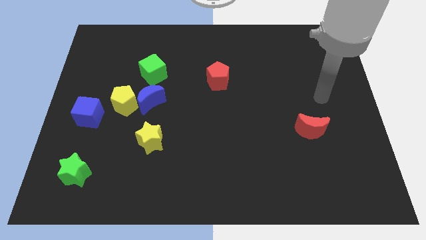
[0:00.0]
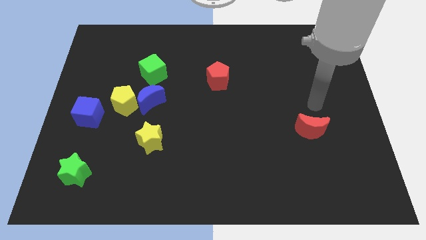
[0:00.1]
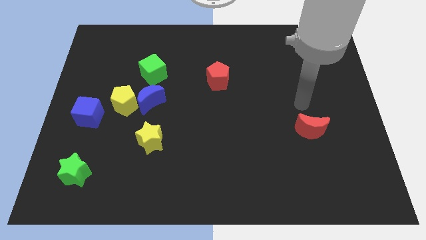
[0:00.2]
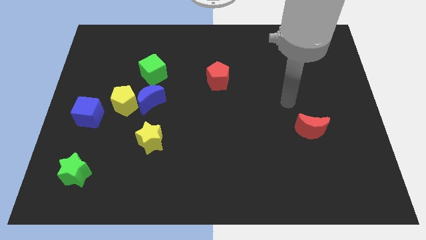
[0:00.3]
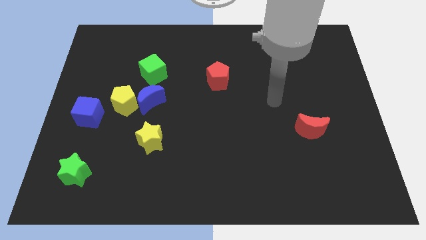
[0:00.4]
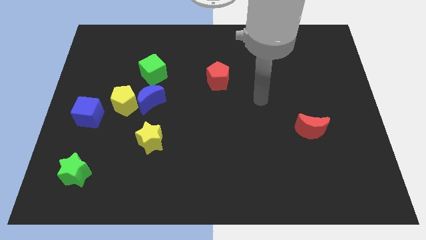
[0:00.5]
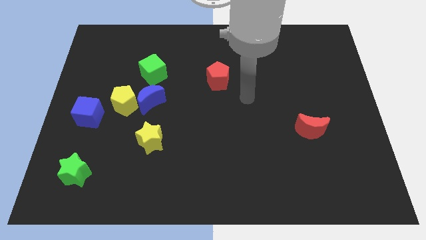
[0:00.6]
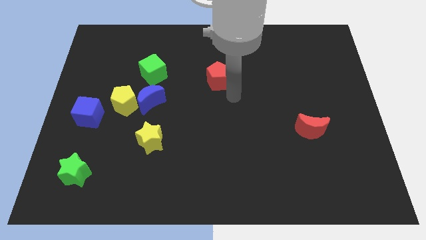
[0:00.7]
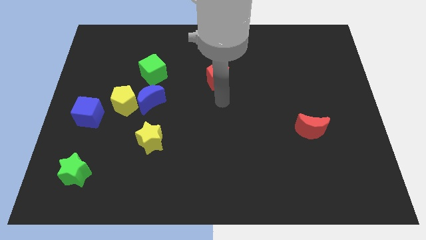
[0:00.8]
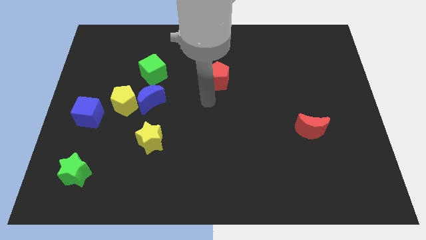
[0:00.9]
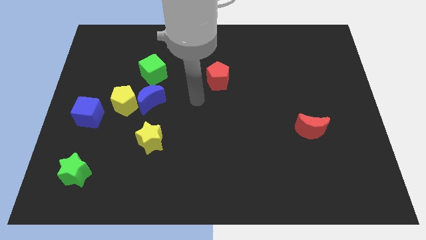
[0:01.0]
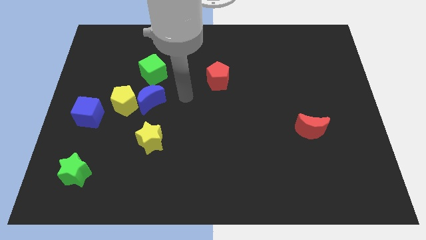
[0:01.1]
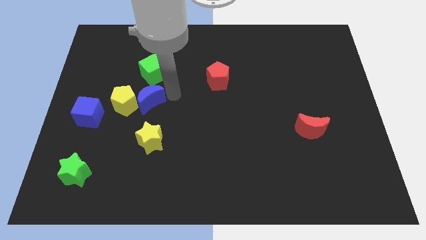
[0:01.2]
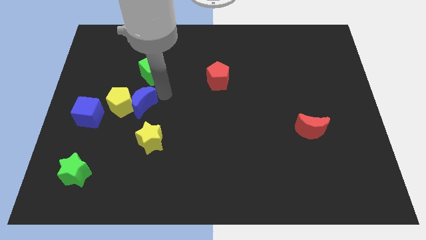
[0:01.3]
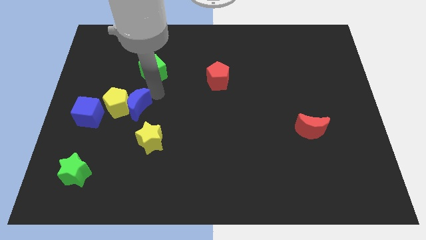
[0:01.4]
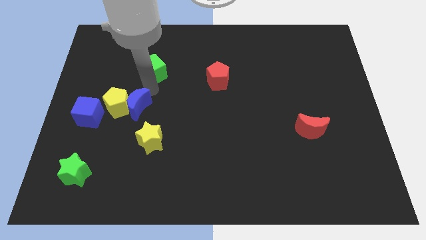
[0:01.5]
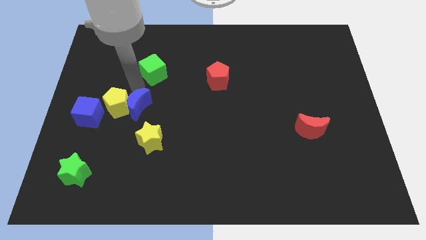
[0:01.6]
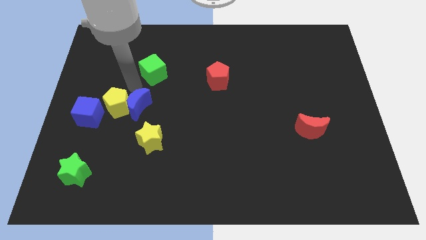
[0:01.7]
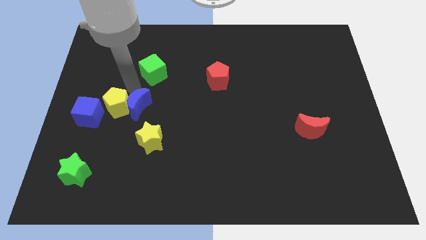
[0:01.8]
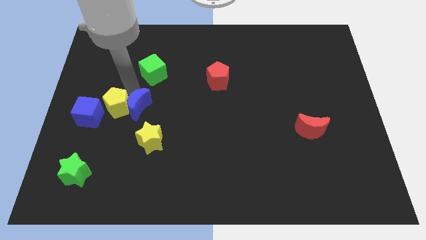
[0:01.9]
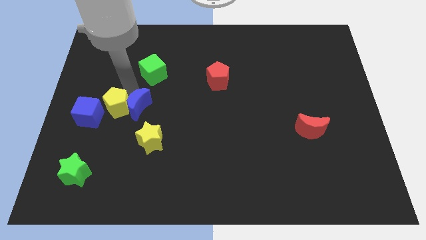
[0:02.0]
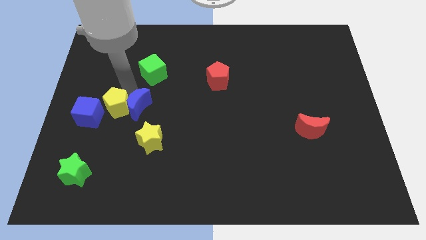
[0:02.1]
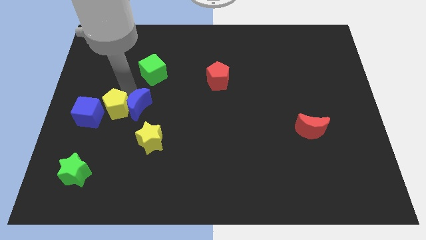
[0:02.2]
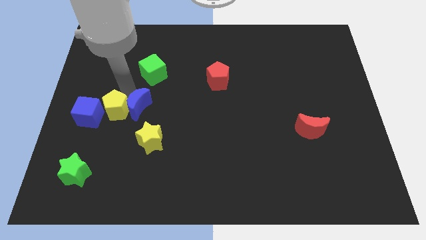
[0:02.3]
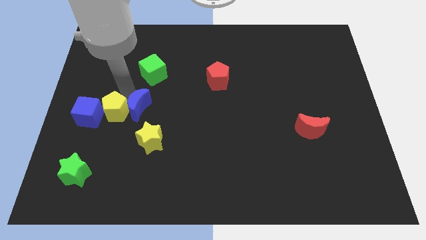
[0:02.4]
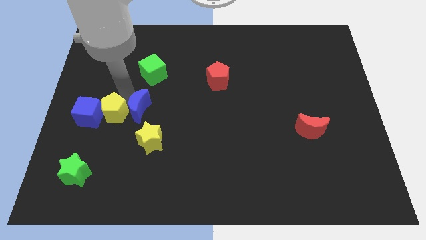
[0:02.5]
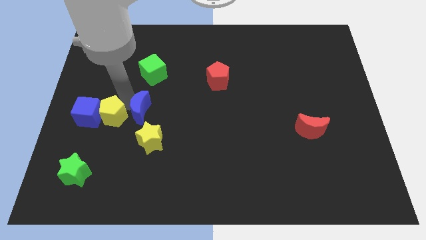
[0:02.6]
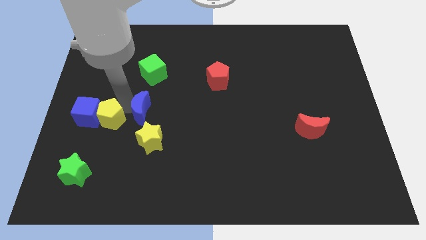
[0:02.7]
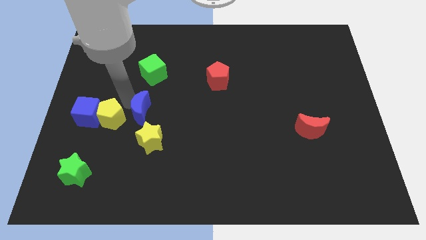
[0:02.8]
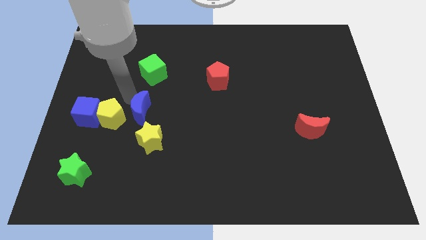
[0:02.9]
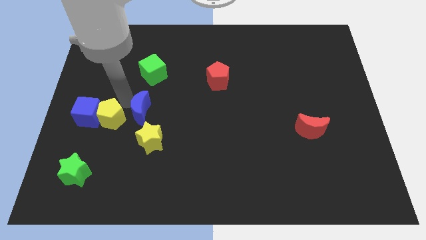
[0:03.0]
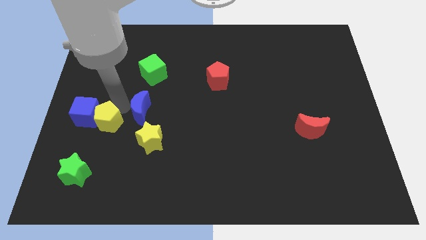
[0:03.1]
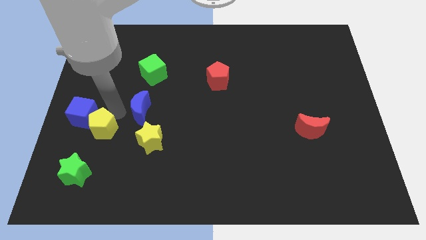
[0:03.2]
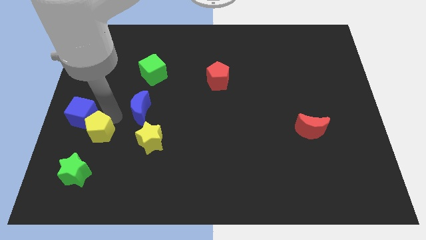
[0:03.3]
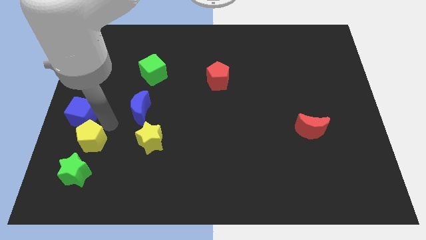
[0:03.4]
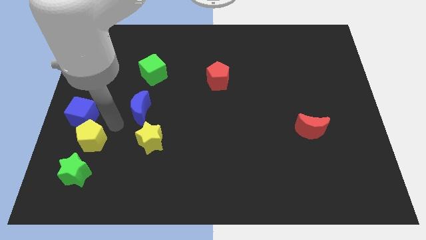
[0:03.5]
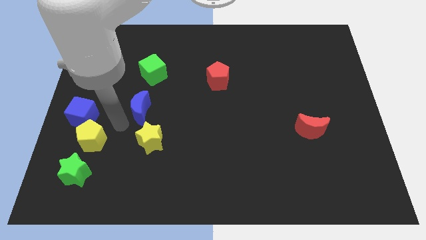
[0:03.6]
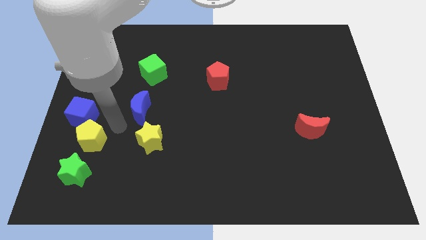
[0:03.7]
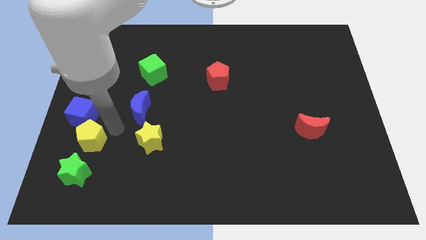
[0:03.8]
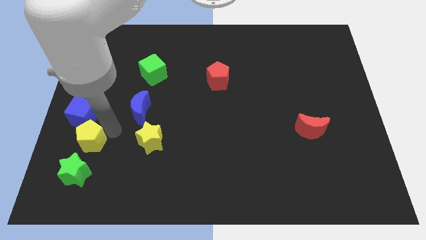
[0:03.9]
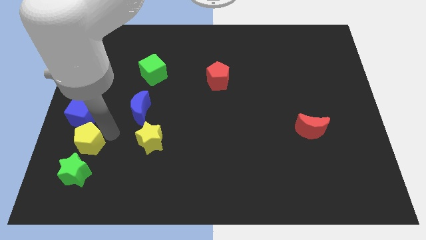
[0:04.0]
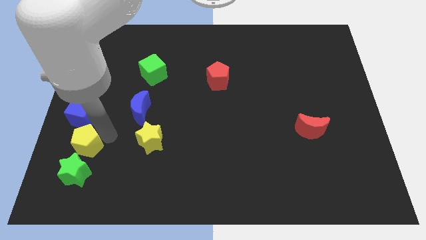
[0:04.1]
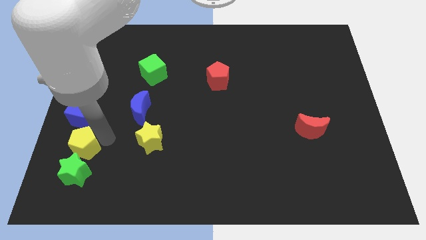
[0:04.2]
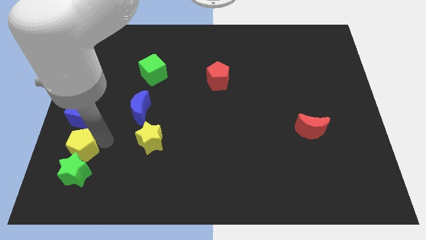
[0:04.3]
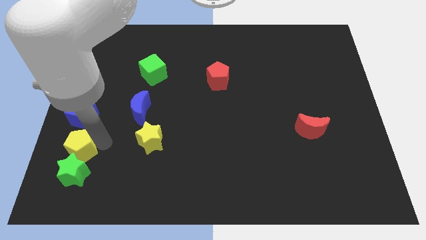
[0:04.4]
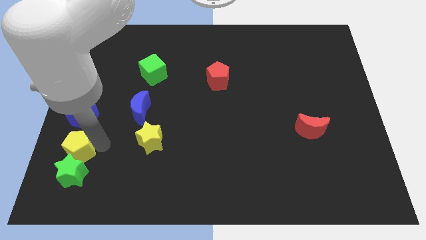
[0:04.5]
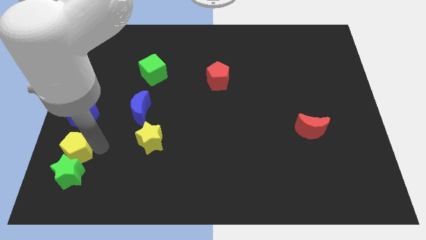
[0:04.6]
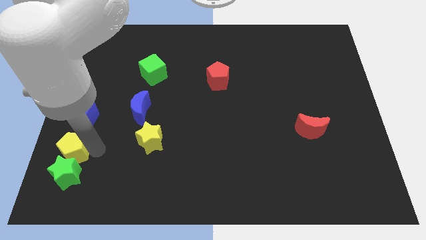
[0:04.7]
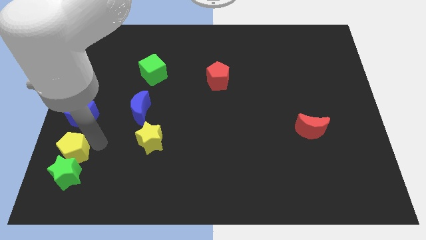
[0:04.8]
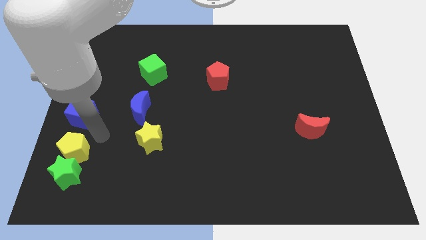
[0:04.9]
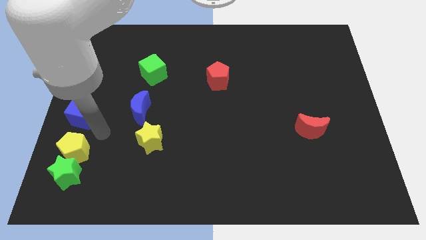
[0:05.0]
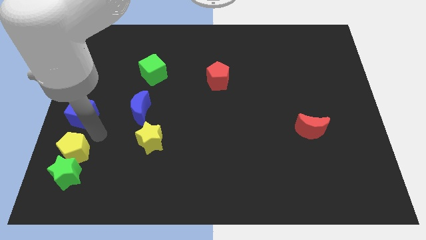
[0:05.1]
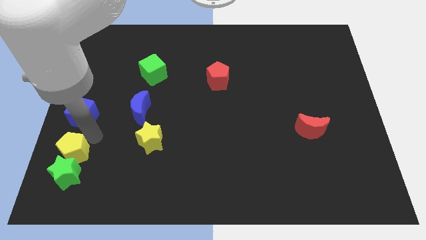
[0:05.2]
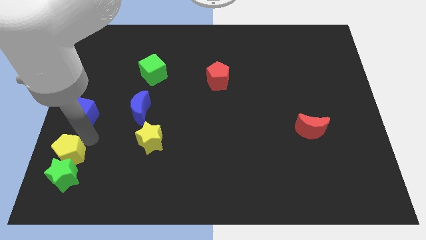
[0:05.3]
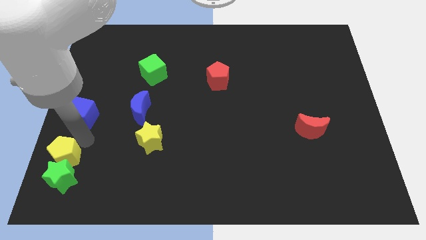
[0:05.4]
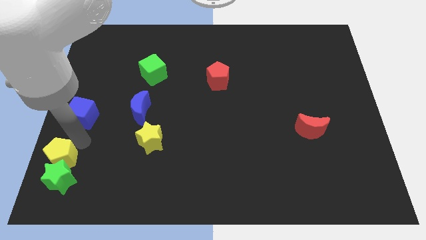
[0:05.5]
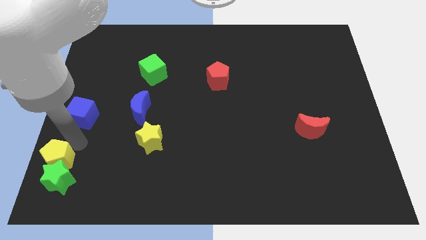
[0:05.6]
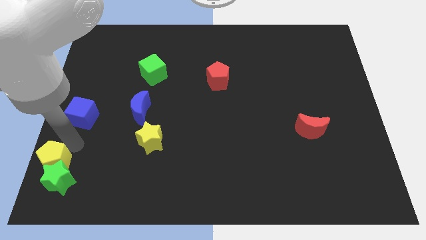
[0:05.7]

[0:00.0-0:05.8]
move the yellow pentagon to the bottom left of the board

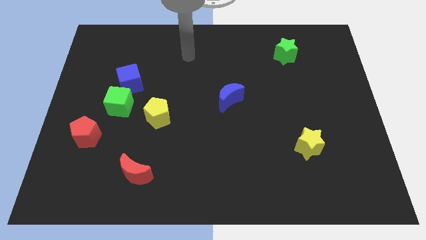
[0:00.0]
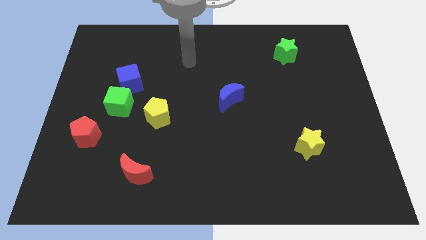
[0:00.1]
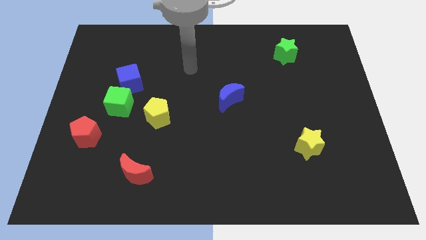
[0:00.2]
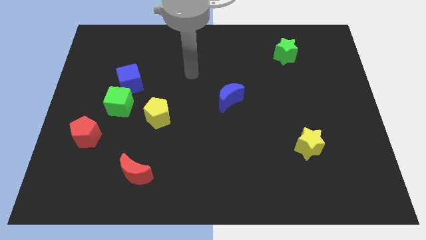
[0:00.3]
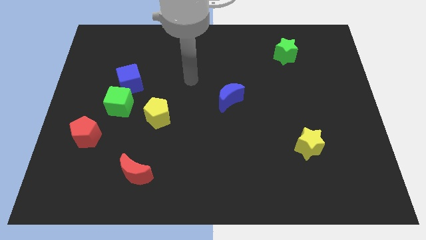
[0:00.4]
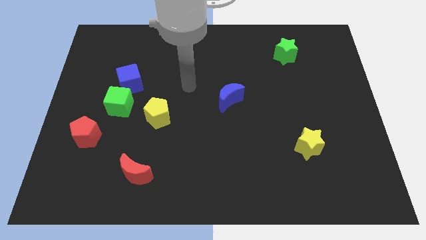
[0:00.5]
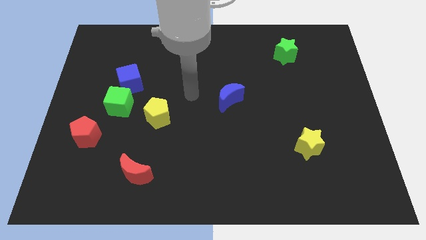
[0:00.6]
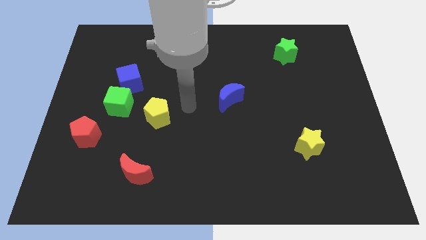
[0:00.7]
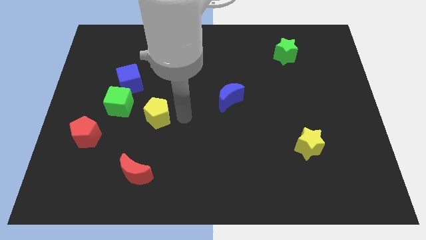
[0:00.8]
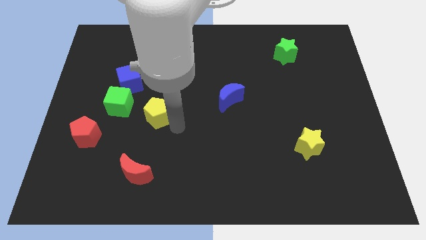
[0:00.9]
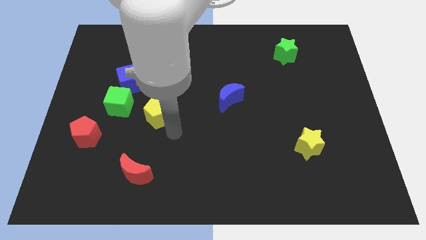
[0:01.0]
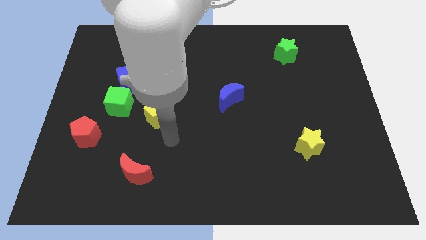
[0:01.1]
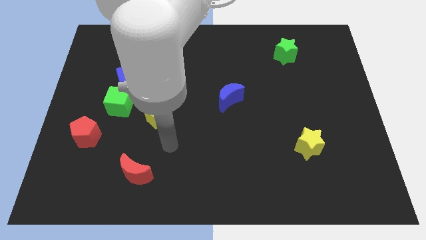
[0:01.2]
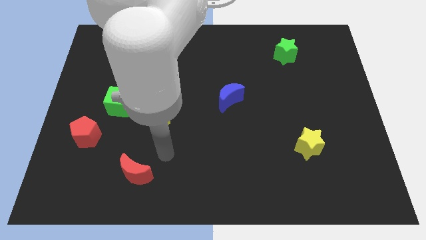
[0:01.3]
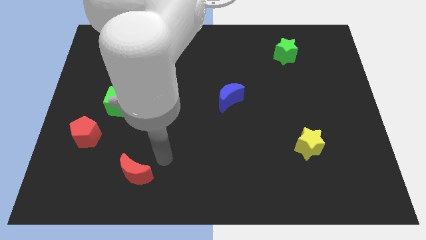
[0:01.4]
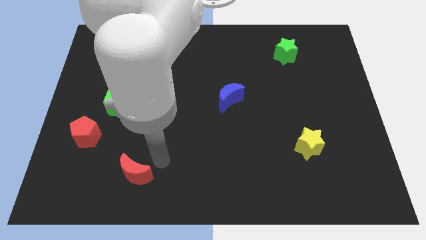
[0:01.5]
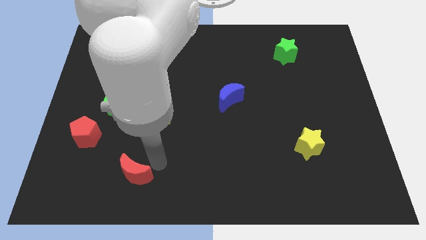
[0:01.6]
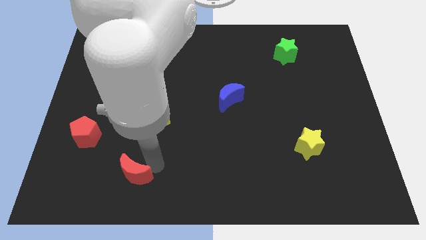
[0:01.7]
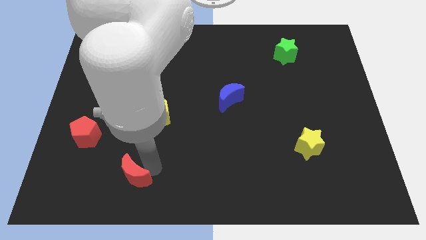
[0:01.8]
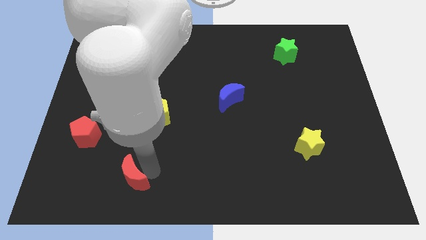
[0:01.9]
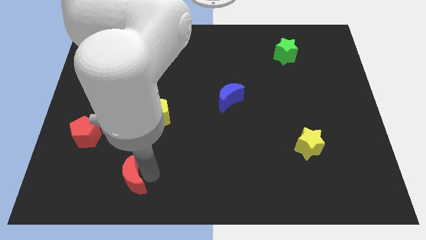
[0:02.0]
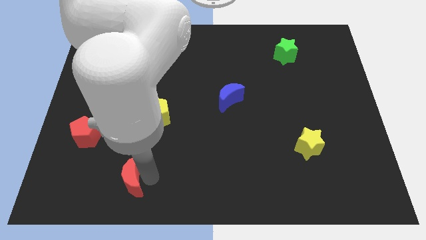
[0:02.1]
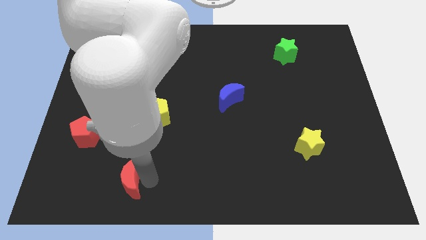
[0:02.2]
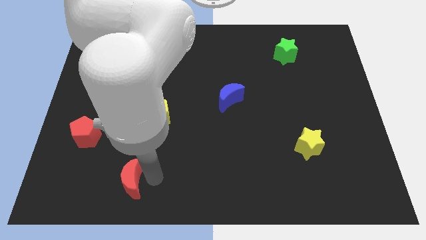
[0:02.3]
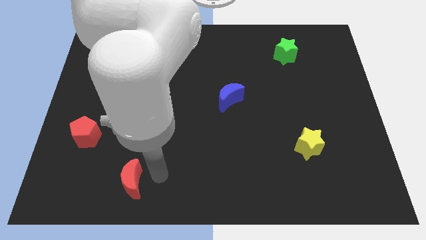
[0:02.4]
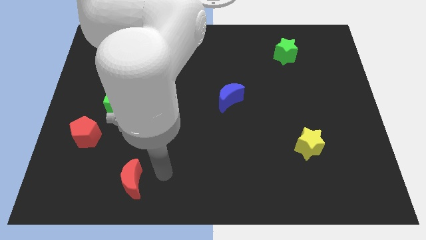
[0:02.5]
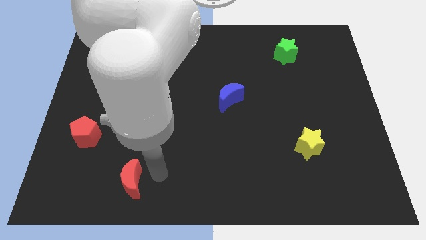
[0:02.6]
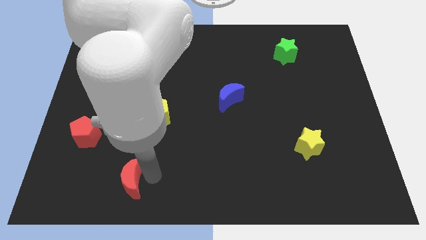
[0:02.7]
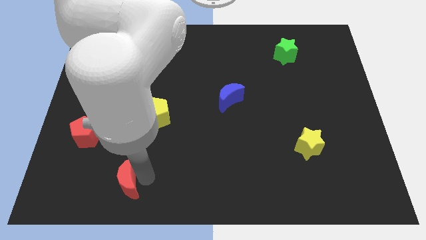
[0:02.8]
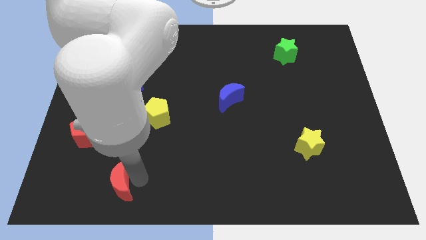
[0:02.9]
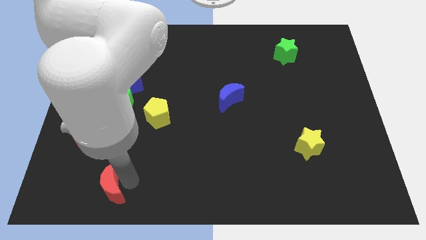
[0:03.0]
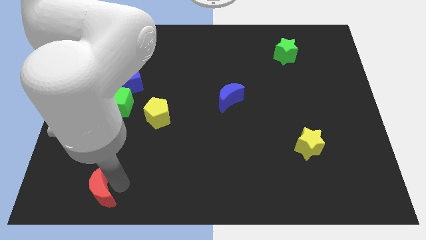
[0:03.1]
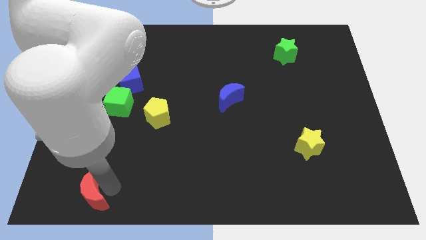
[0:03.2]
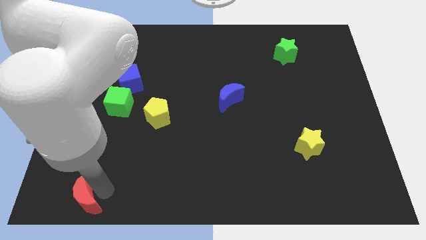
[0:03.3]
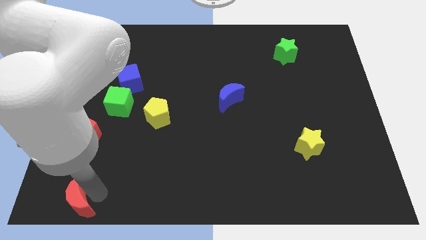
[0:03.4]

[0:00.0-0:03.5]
slide the red moon to the bottom left of the board
